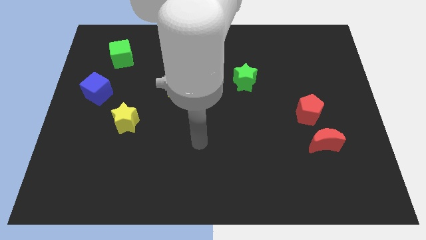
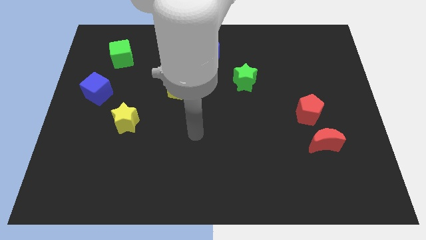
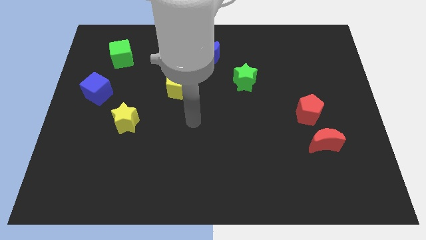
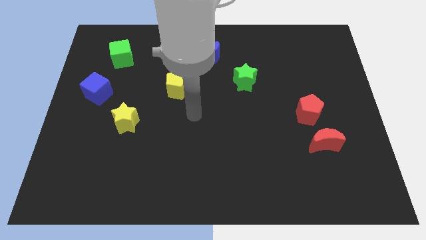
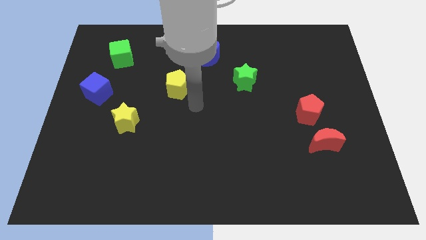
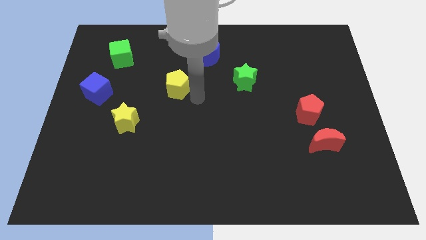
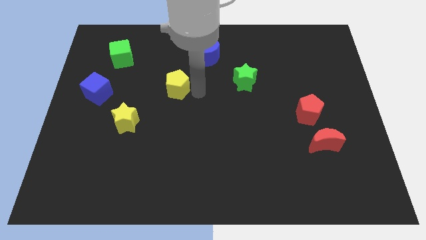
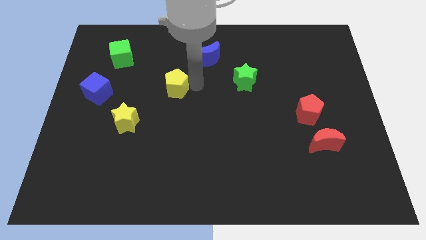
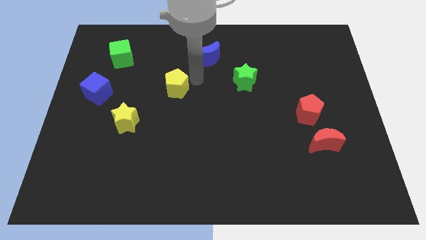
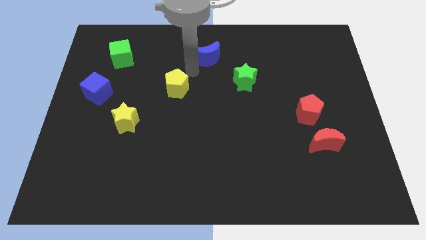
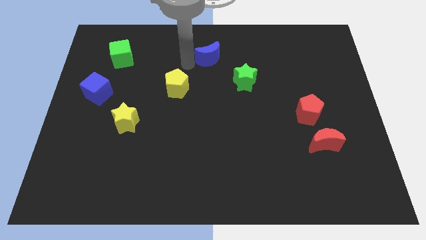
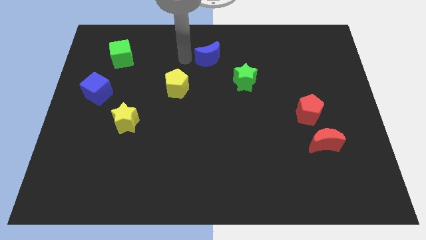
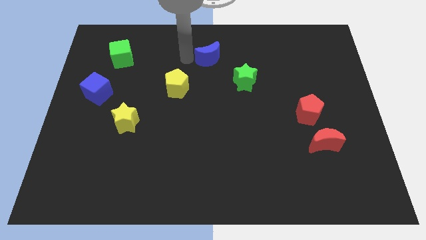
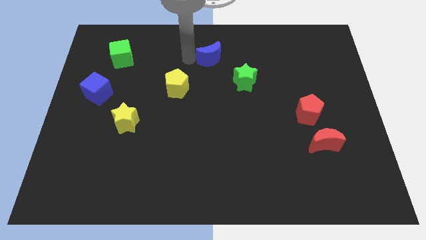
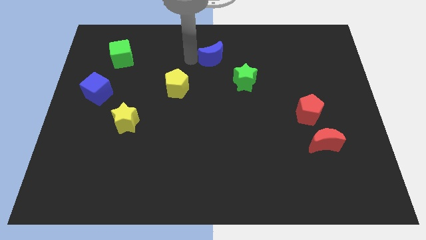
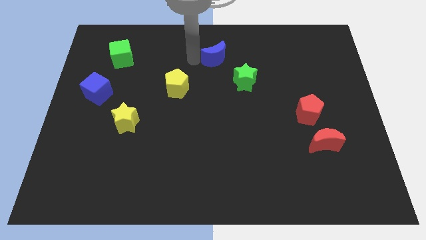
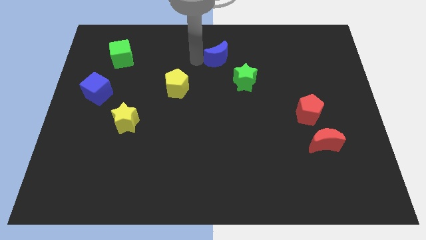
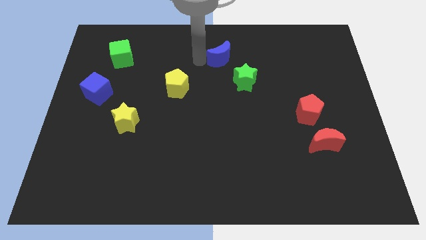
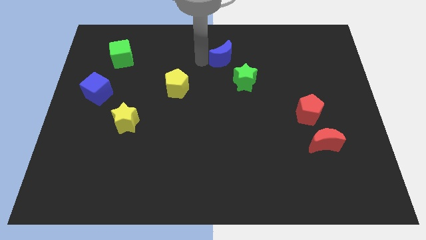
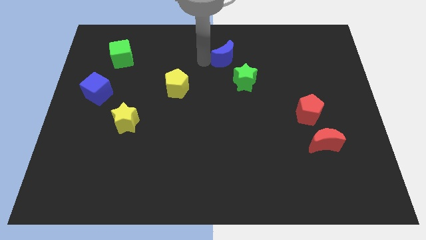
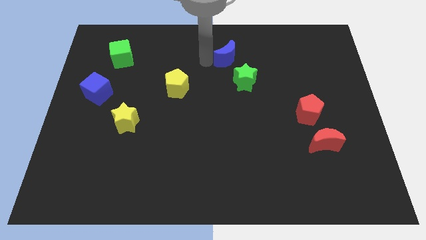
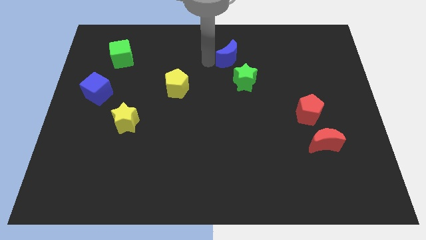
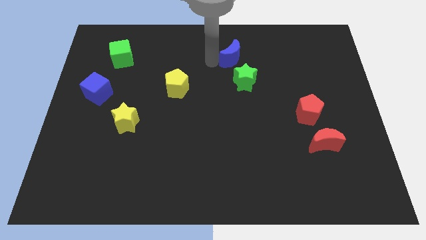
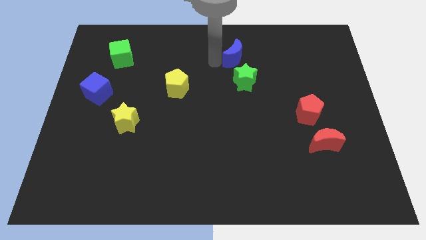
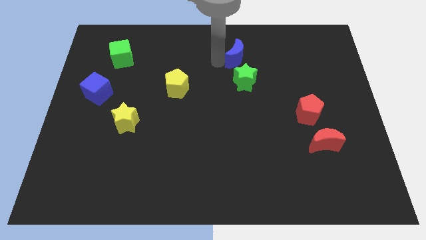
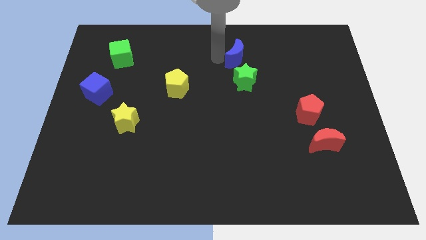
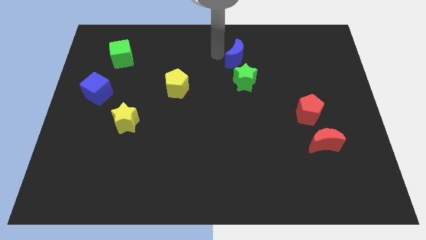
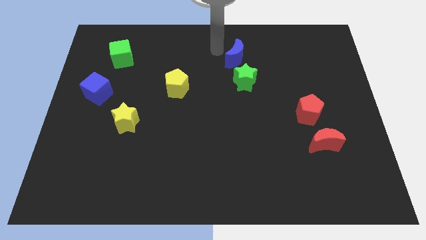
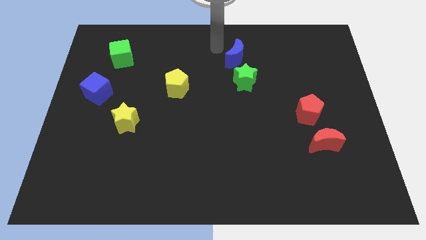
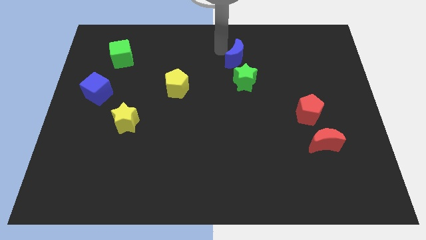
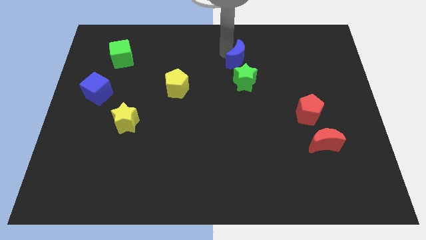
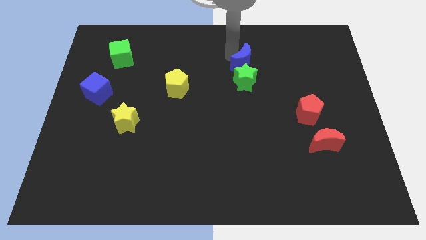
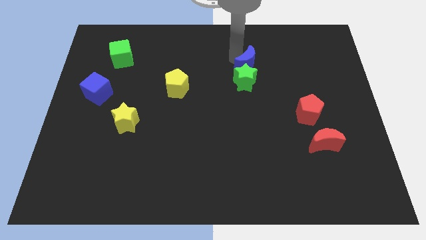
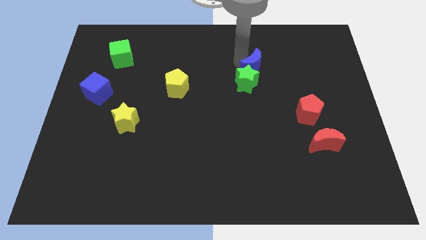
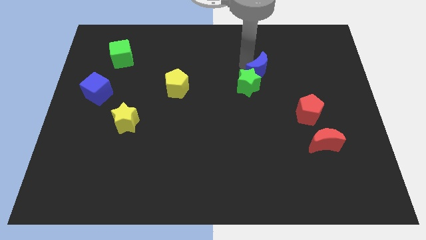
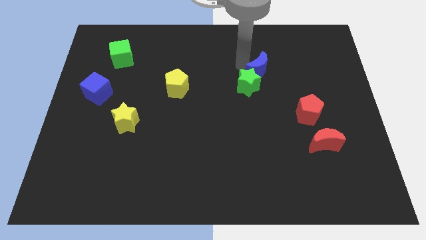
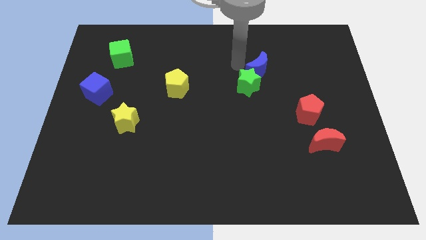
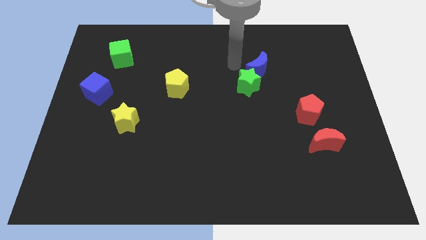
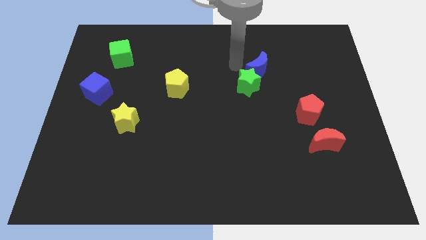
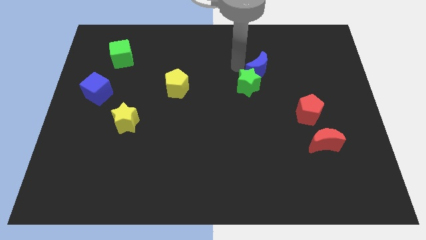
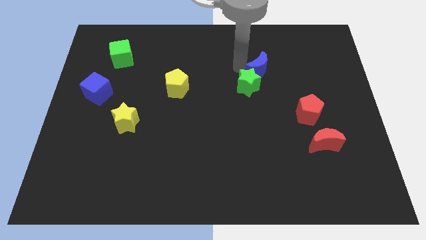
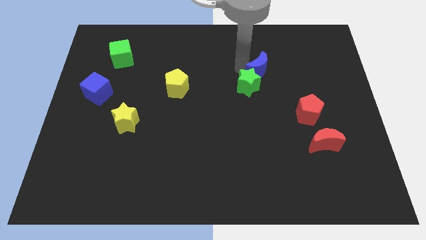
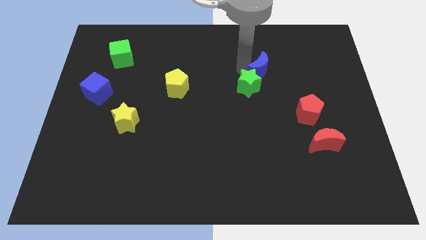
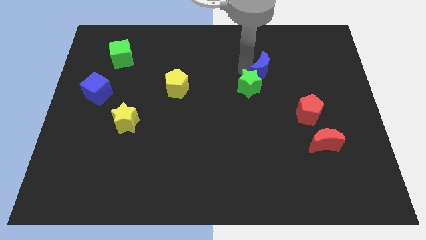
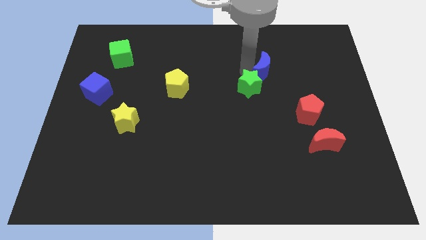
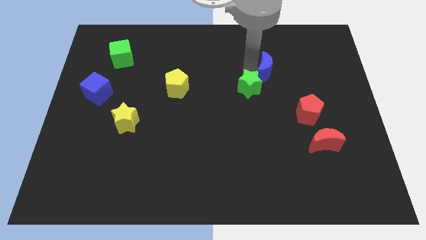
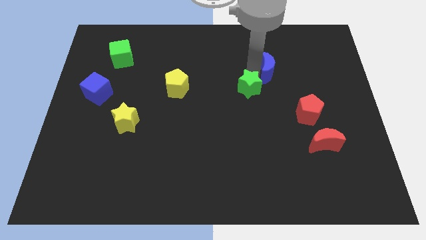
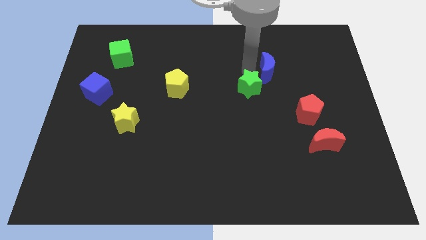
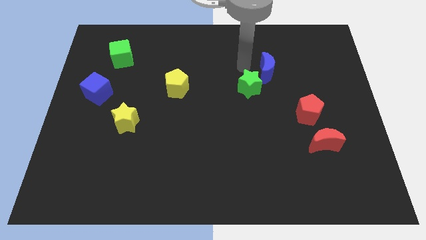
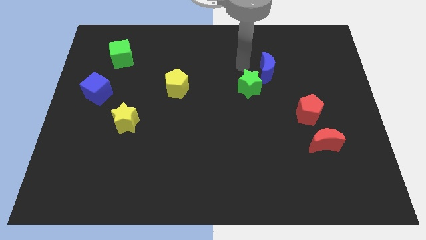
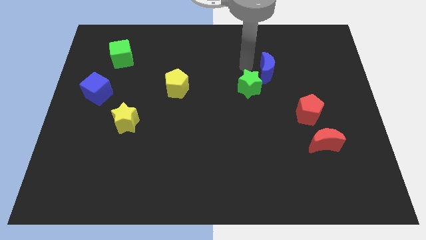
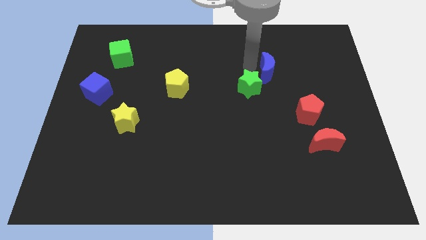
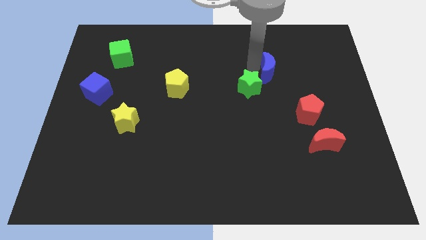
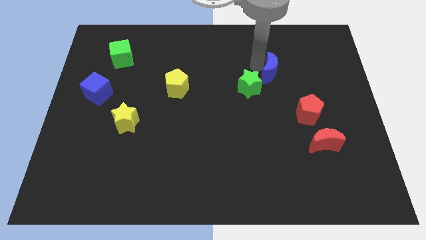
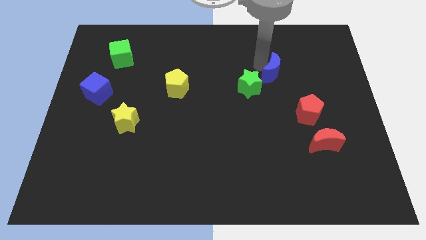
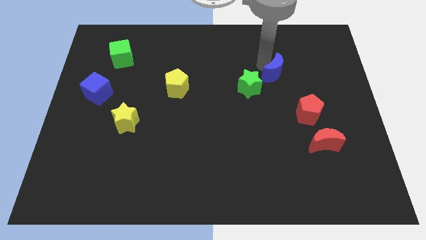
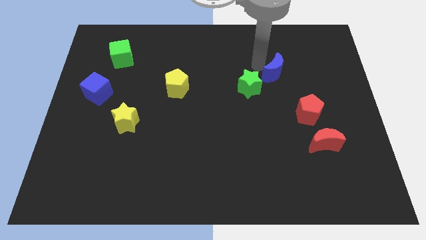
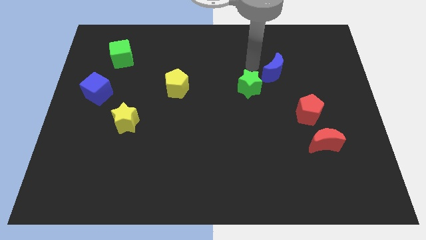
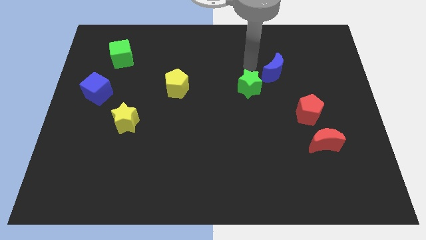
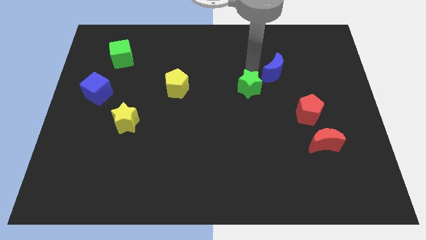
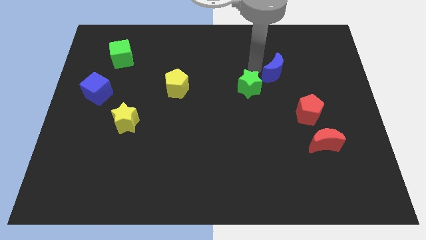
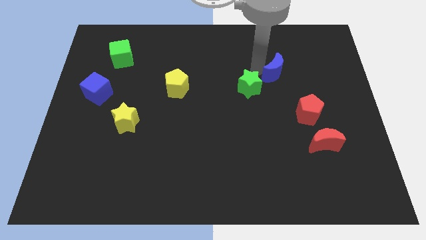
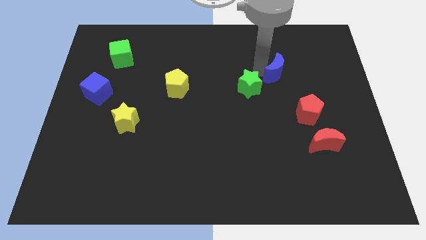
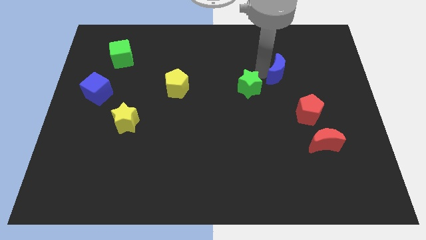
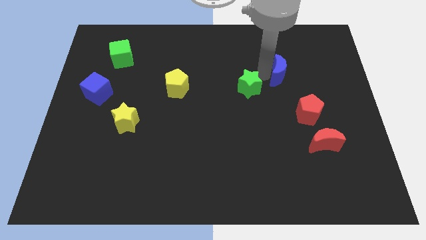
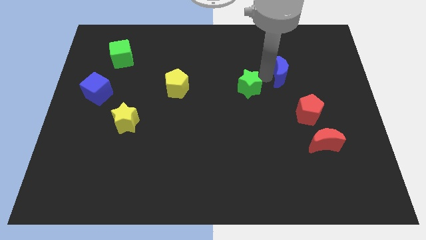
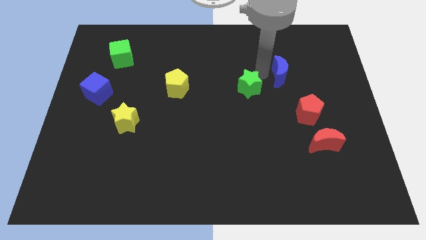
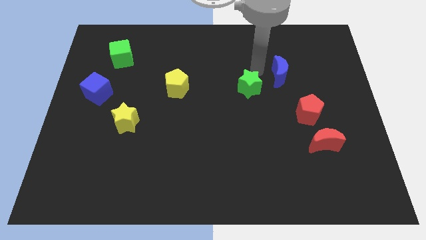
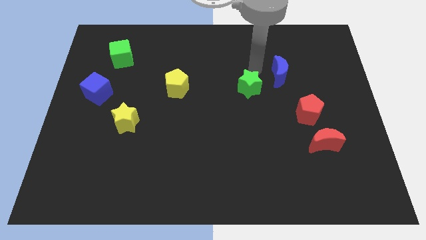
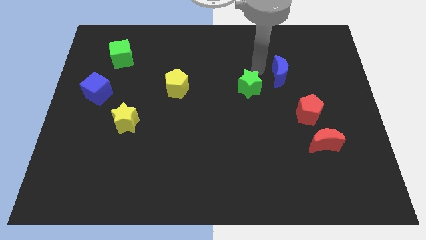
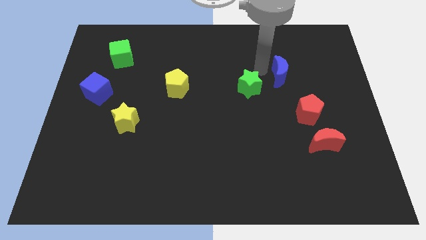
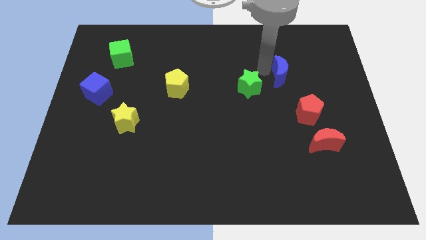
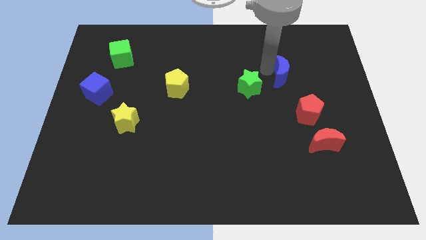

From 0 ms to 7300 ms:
move the blue moon to the top side of the red pentagon

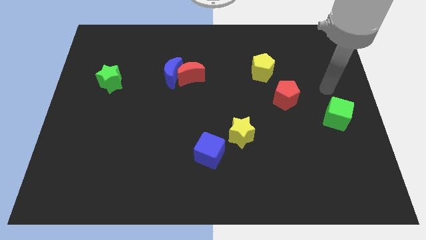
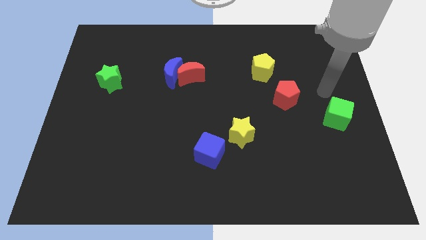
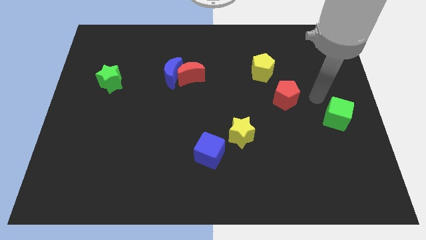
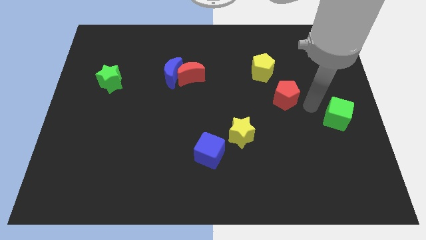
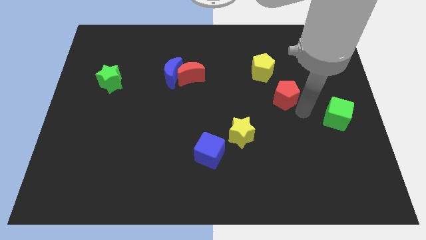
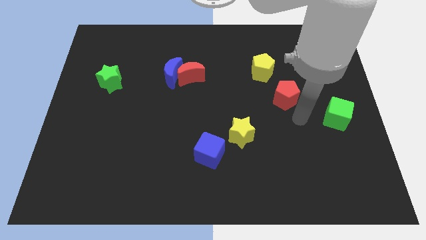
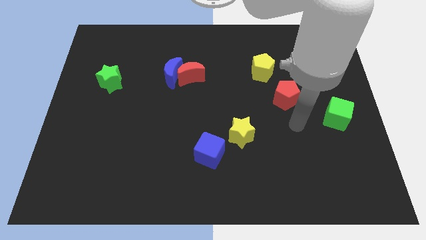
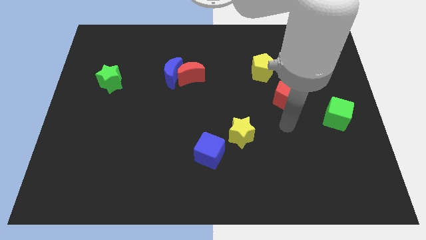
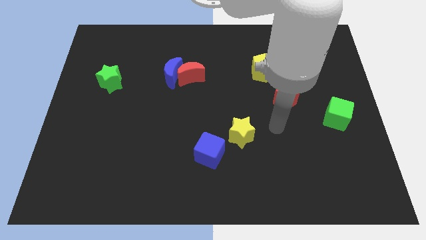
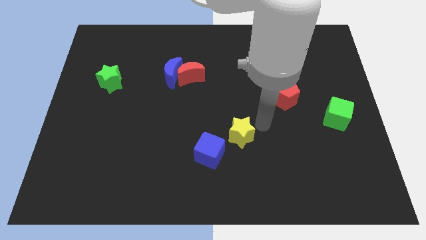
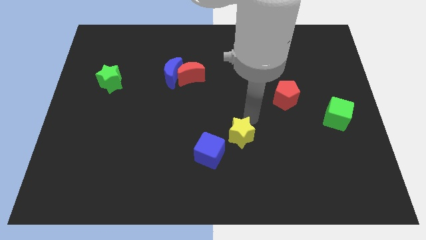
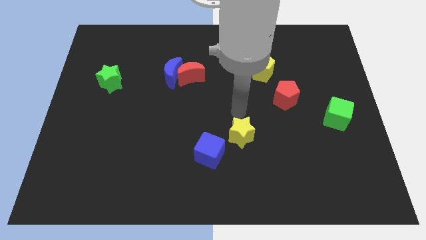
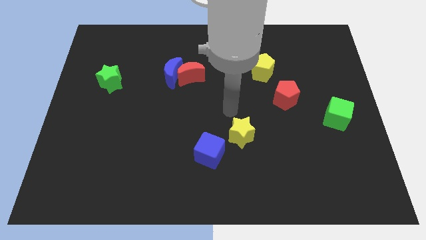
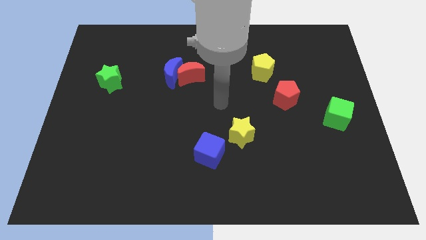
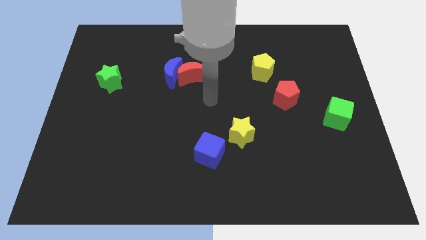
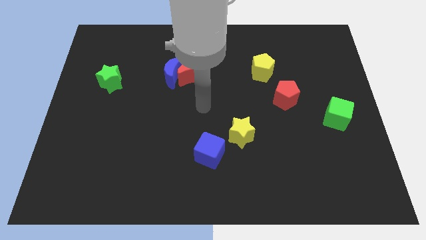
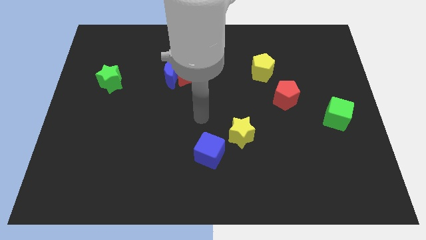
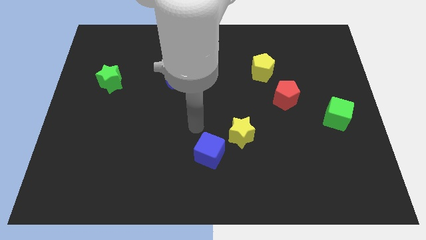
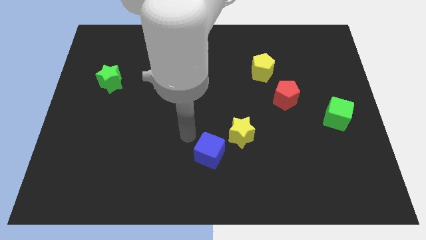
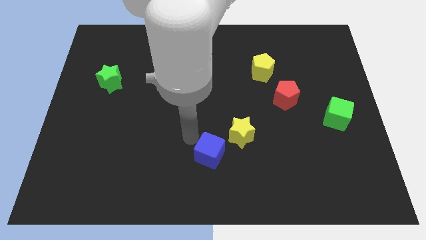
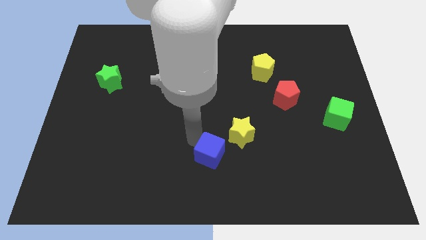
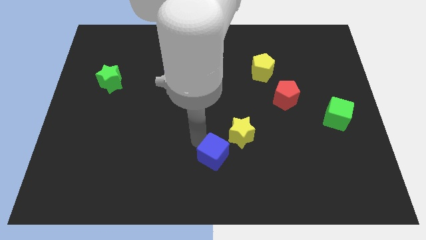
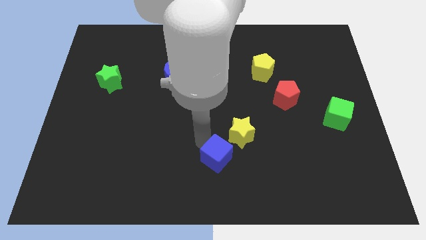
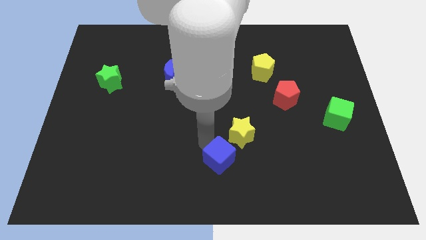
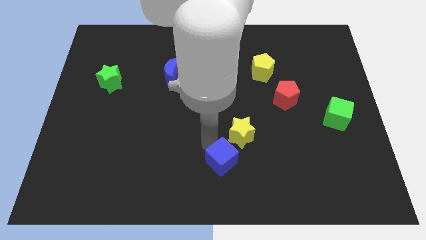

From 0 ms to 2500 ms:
push the blue cube below the yellow star
